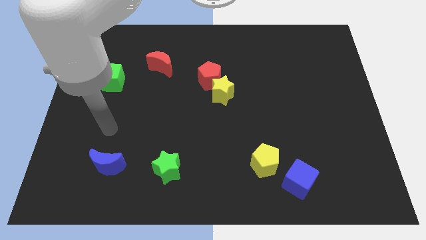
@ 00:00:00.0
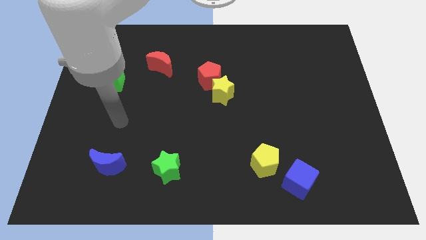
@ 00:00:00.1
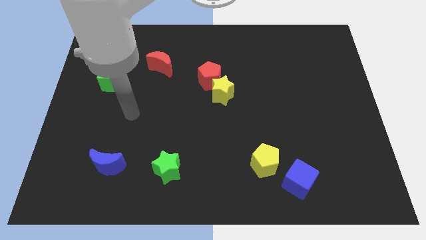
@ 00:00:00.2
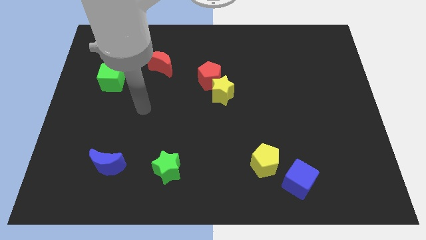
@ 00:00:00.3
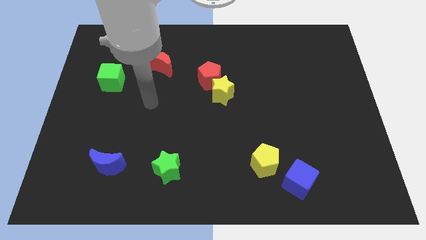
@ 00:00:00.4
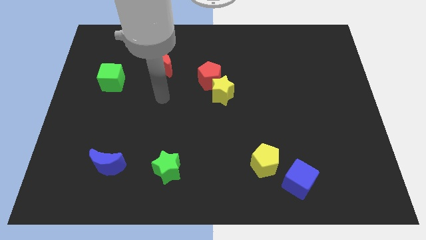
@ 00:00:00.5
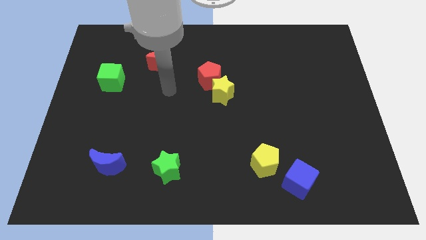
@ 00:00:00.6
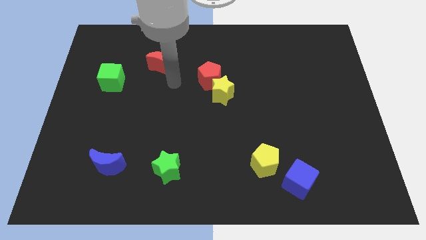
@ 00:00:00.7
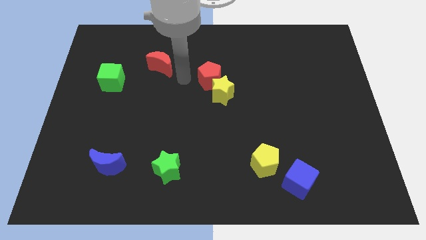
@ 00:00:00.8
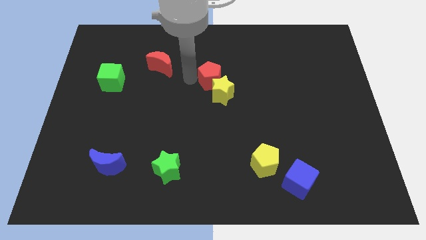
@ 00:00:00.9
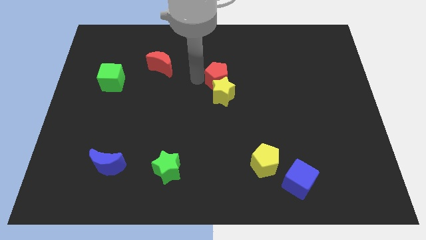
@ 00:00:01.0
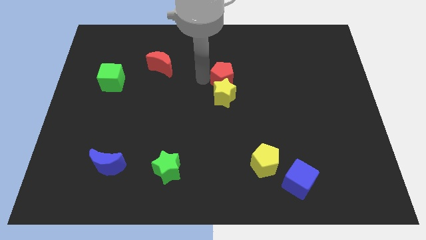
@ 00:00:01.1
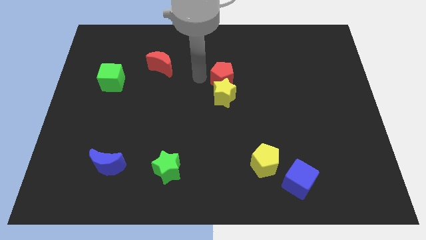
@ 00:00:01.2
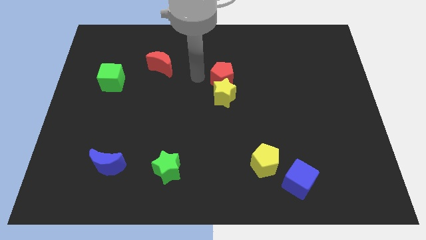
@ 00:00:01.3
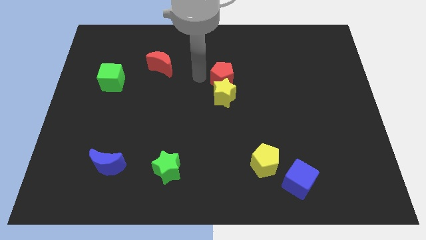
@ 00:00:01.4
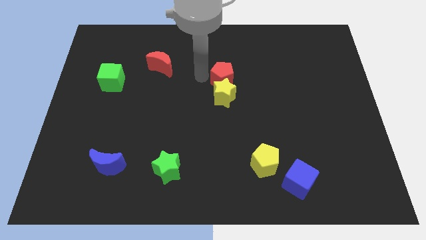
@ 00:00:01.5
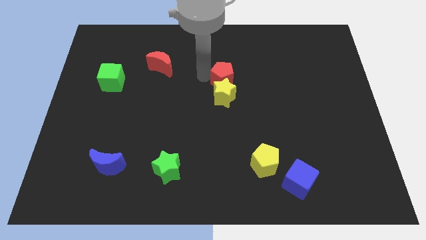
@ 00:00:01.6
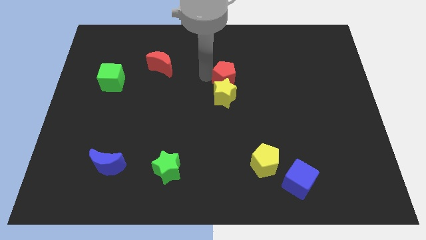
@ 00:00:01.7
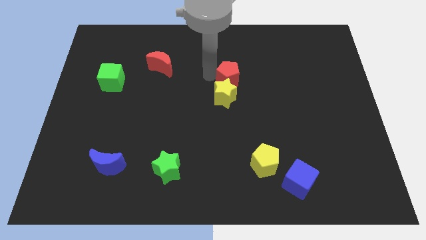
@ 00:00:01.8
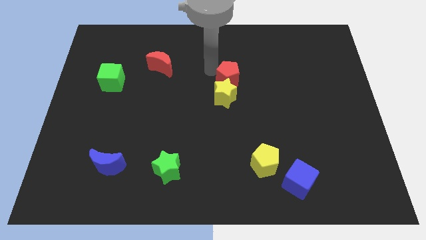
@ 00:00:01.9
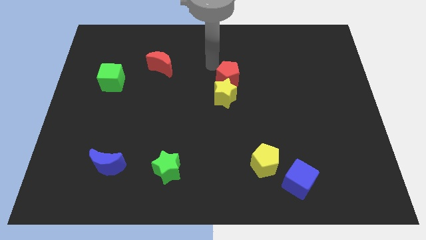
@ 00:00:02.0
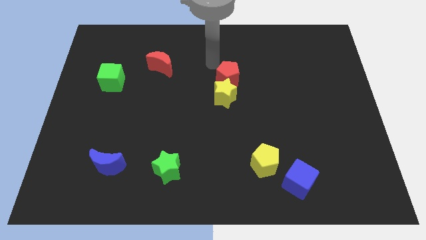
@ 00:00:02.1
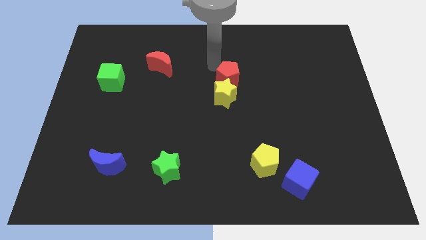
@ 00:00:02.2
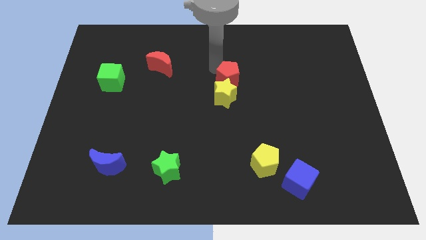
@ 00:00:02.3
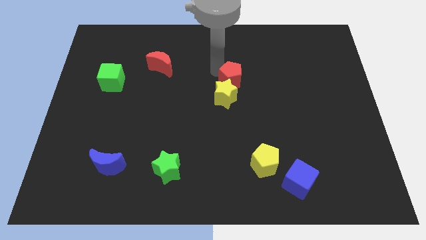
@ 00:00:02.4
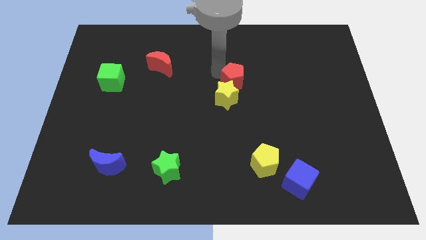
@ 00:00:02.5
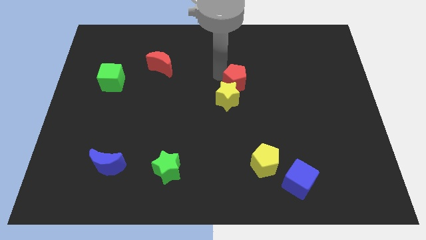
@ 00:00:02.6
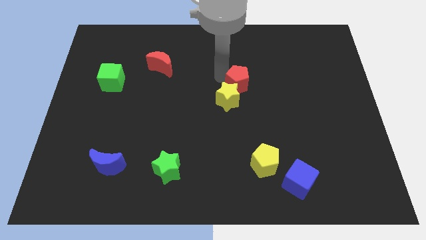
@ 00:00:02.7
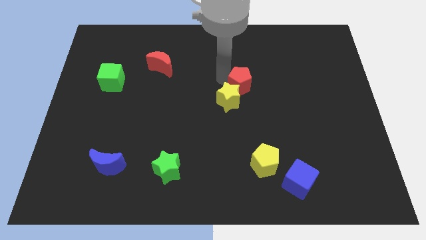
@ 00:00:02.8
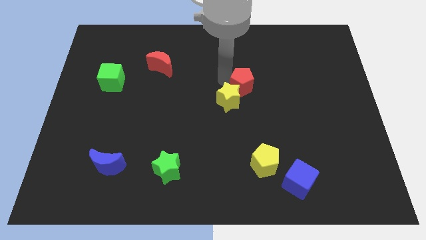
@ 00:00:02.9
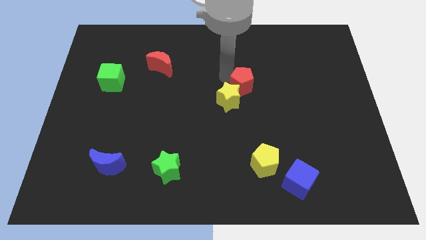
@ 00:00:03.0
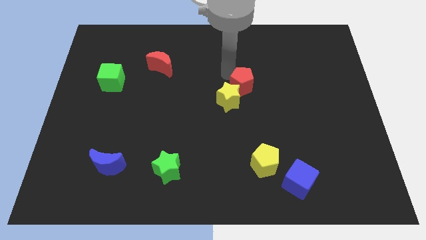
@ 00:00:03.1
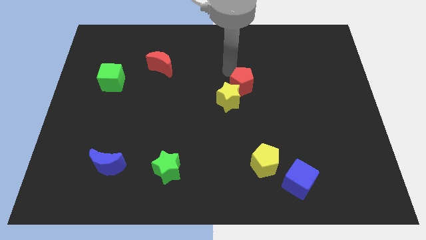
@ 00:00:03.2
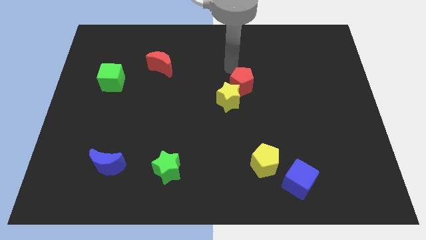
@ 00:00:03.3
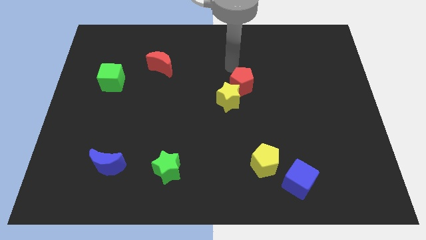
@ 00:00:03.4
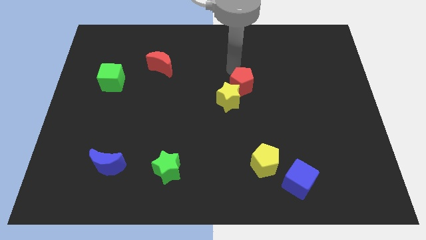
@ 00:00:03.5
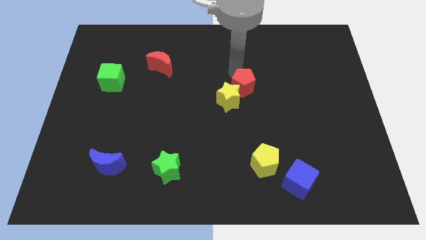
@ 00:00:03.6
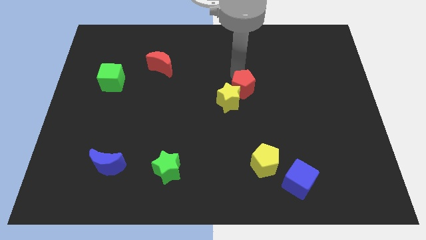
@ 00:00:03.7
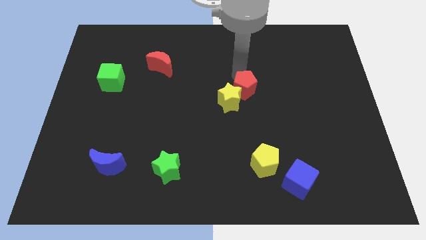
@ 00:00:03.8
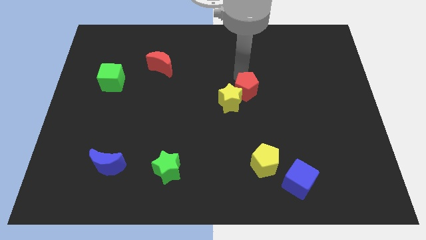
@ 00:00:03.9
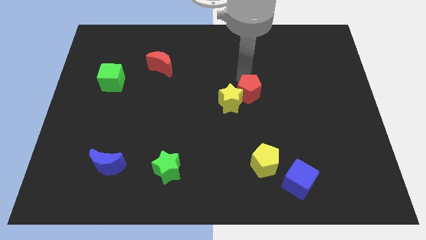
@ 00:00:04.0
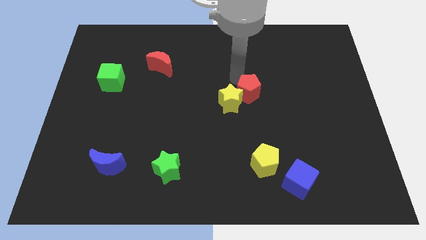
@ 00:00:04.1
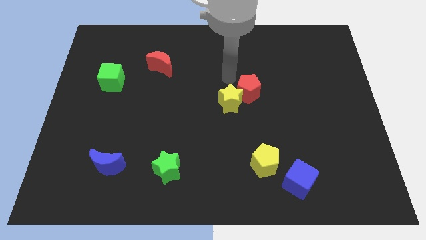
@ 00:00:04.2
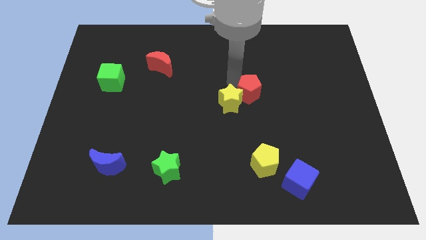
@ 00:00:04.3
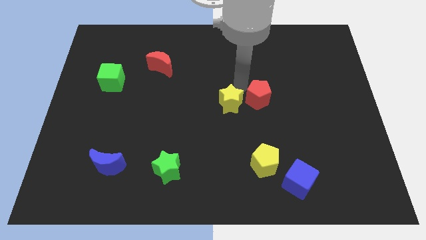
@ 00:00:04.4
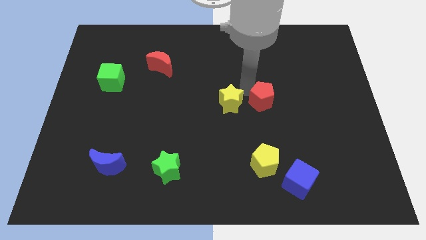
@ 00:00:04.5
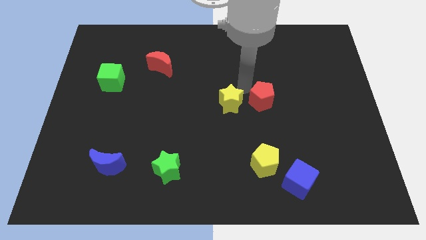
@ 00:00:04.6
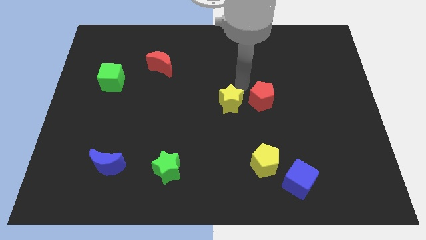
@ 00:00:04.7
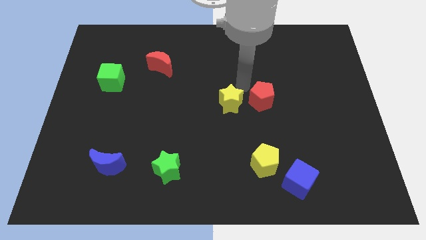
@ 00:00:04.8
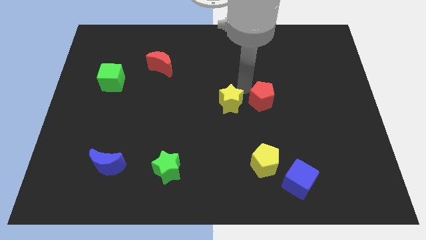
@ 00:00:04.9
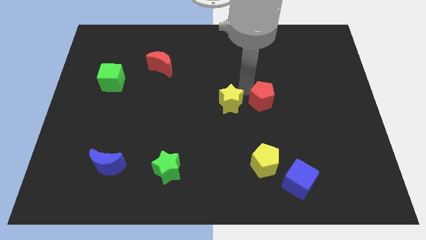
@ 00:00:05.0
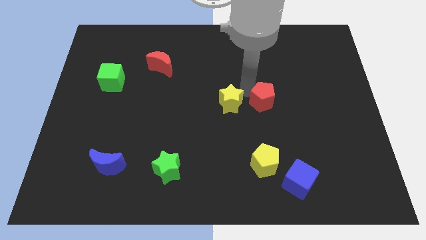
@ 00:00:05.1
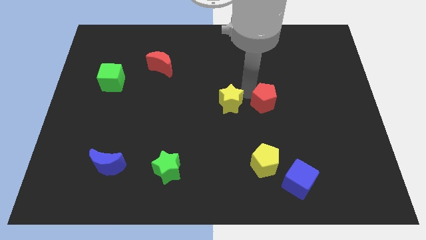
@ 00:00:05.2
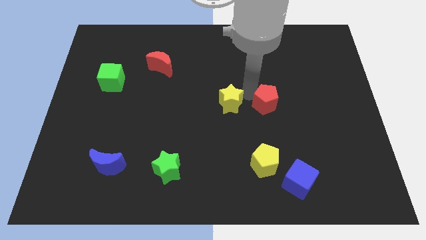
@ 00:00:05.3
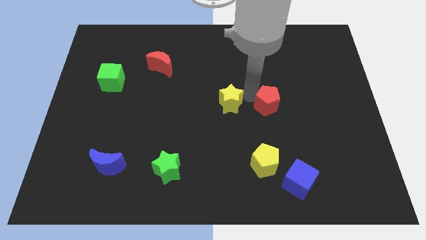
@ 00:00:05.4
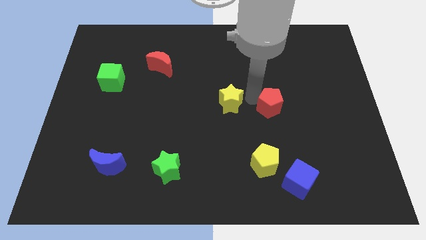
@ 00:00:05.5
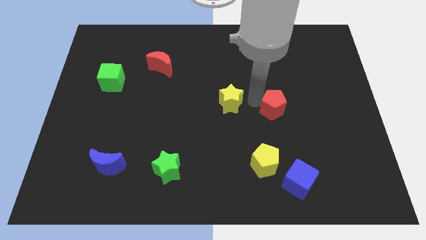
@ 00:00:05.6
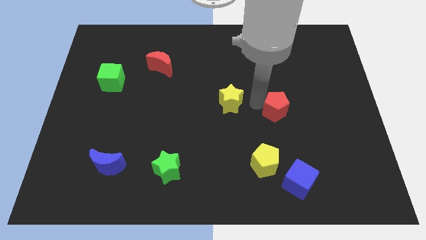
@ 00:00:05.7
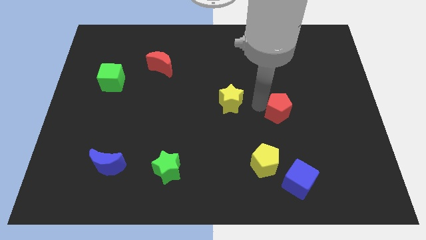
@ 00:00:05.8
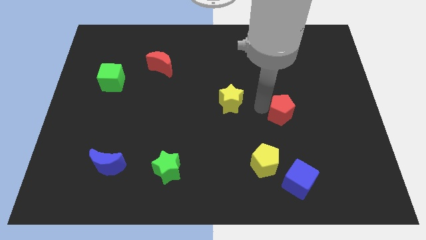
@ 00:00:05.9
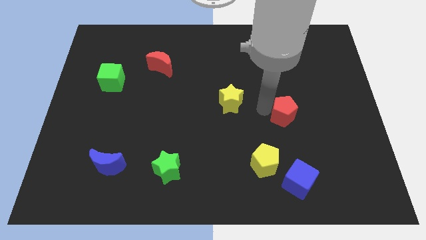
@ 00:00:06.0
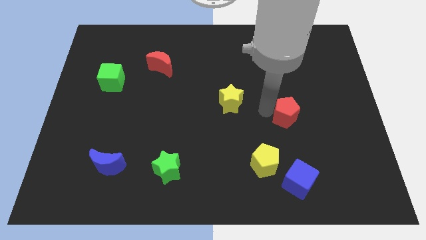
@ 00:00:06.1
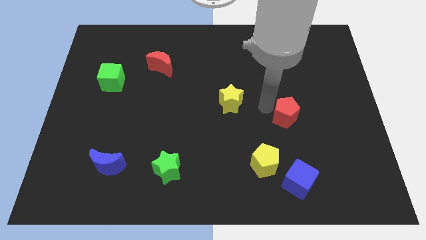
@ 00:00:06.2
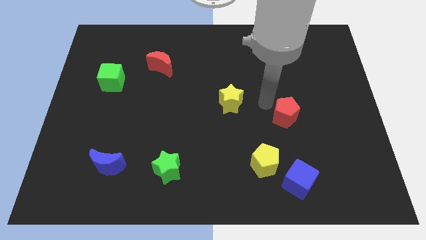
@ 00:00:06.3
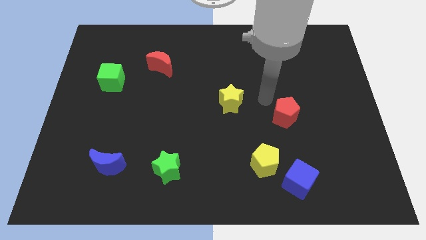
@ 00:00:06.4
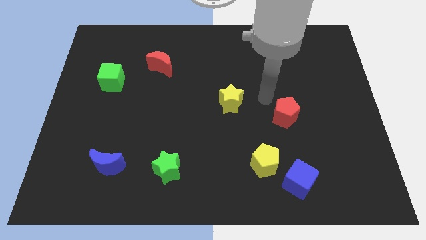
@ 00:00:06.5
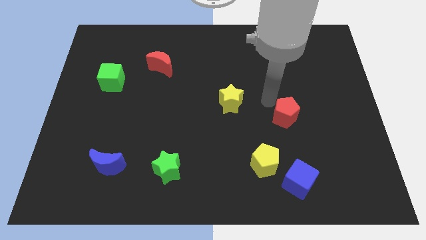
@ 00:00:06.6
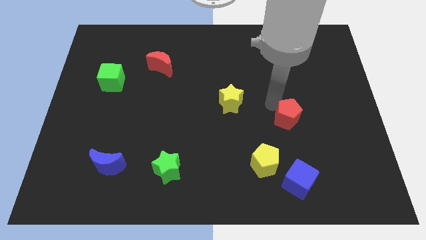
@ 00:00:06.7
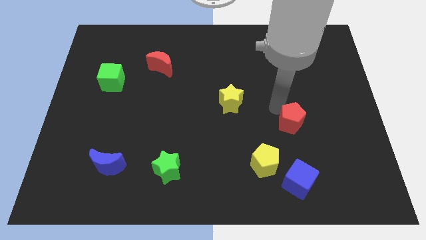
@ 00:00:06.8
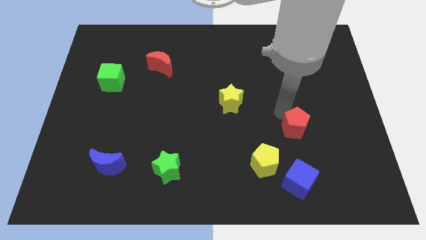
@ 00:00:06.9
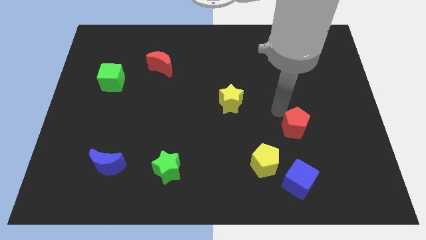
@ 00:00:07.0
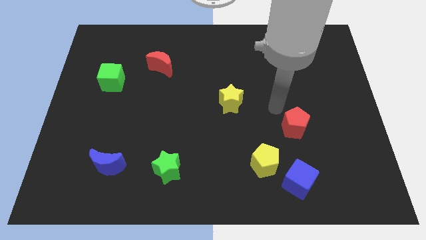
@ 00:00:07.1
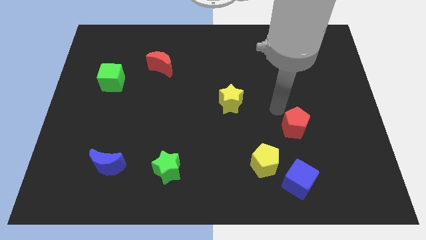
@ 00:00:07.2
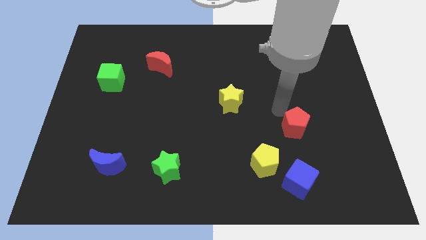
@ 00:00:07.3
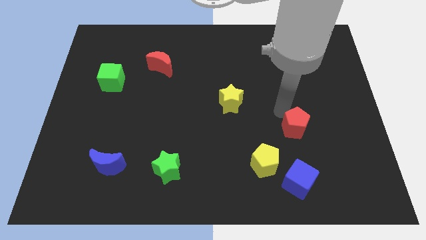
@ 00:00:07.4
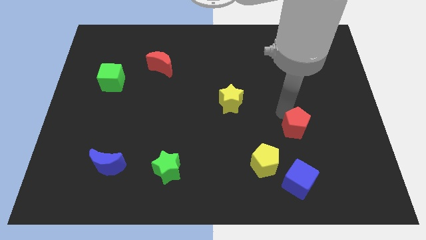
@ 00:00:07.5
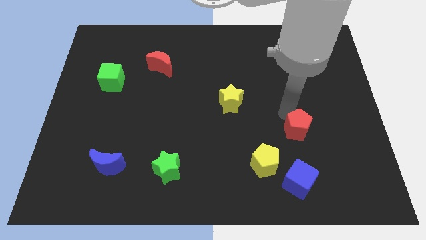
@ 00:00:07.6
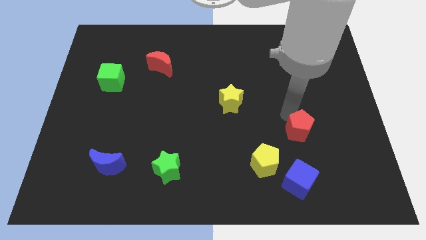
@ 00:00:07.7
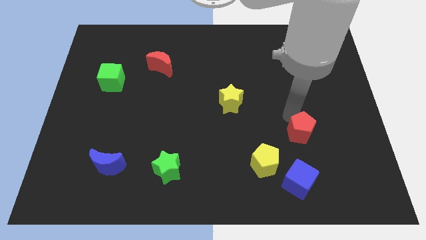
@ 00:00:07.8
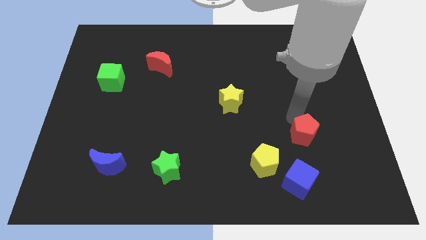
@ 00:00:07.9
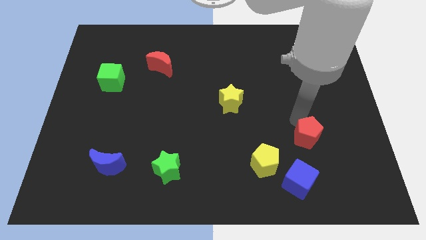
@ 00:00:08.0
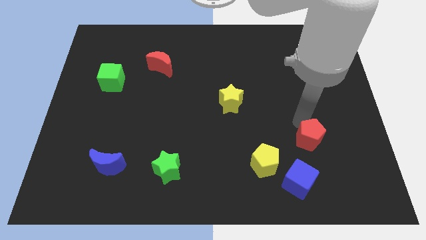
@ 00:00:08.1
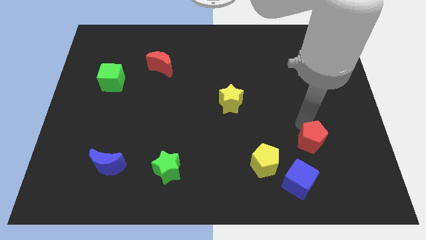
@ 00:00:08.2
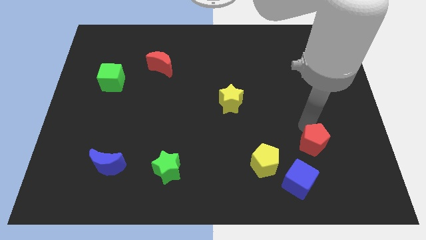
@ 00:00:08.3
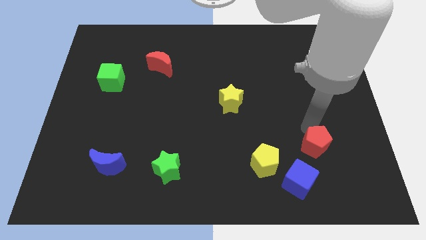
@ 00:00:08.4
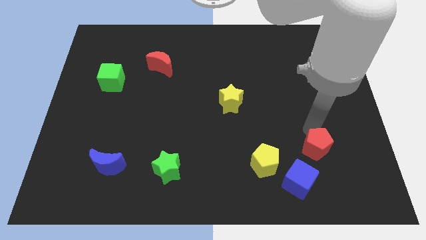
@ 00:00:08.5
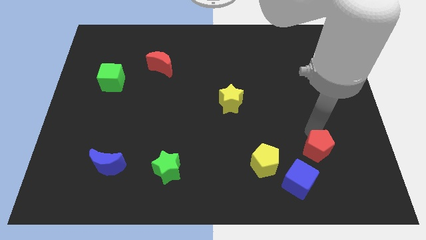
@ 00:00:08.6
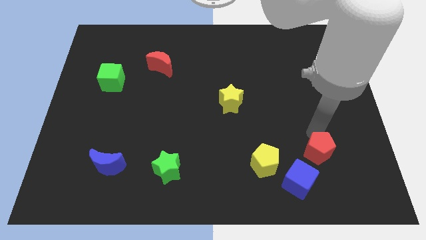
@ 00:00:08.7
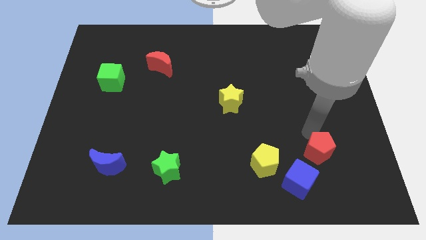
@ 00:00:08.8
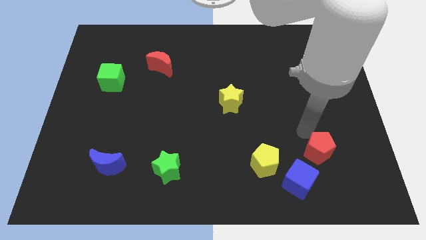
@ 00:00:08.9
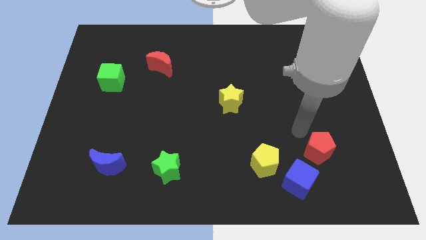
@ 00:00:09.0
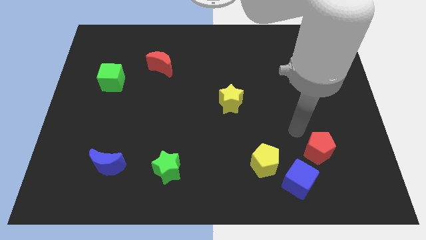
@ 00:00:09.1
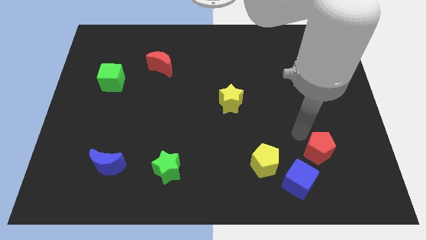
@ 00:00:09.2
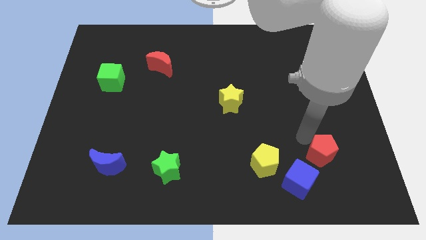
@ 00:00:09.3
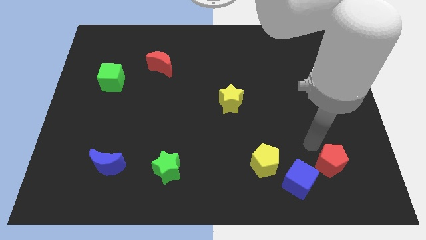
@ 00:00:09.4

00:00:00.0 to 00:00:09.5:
put the red pentagon to the right of the blue cube
